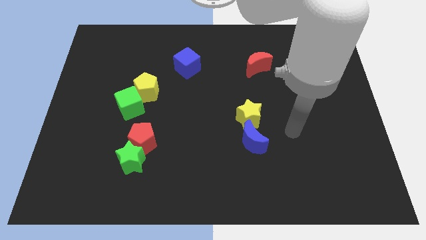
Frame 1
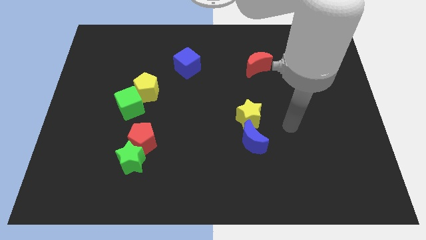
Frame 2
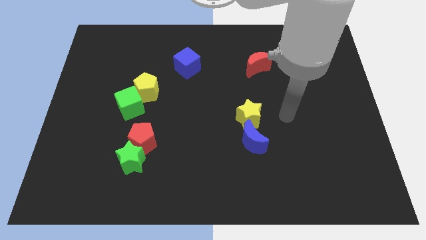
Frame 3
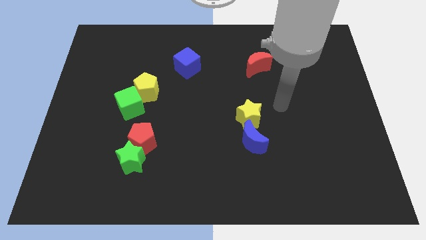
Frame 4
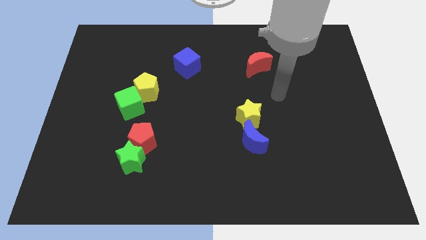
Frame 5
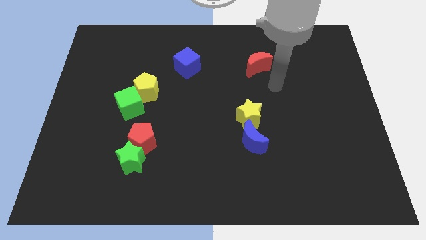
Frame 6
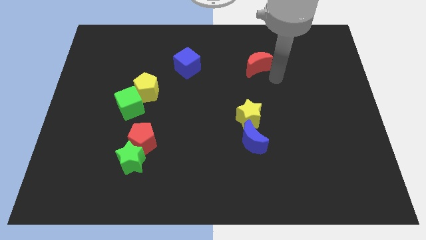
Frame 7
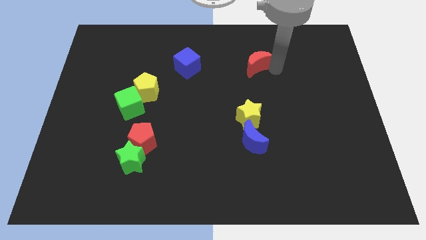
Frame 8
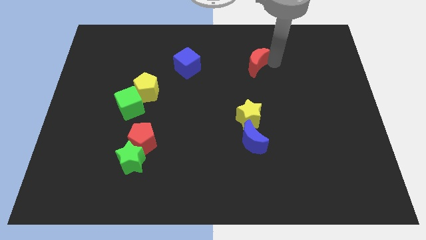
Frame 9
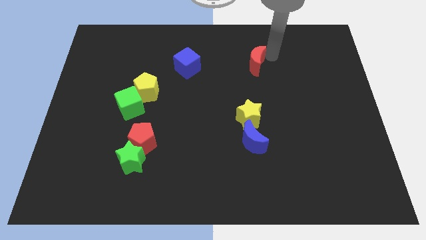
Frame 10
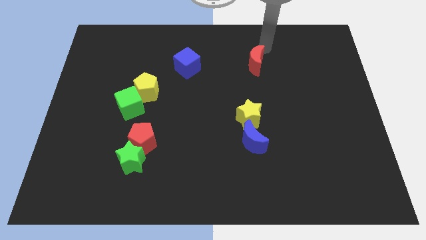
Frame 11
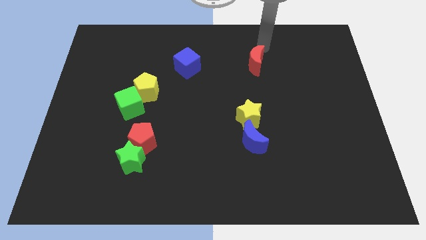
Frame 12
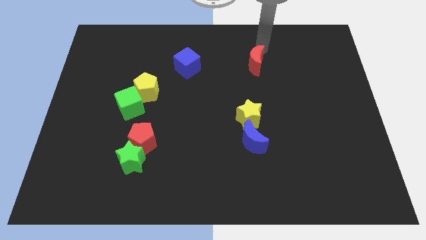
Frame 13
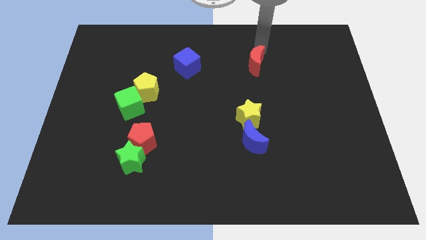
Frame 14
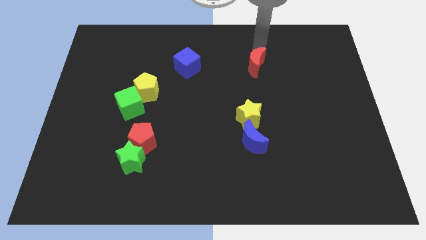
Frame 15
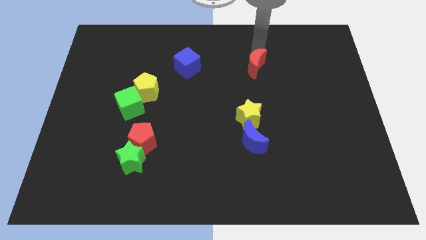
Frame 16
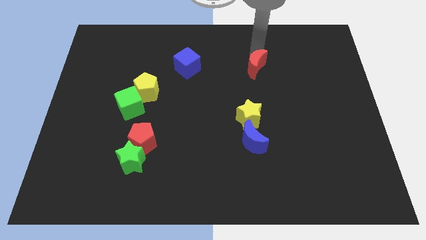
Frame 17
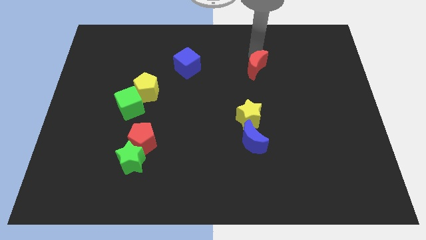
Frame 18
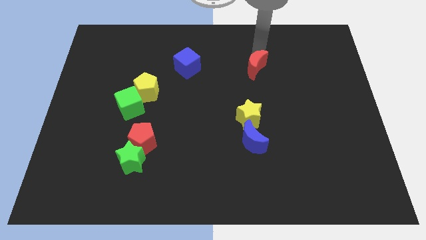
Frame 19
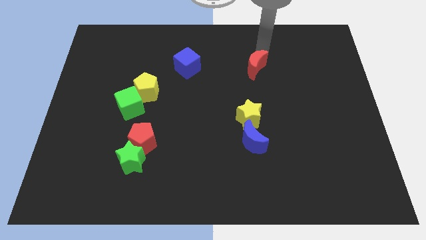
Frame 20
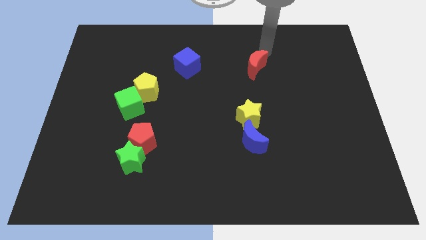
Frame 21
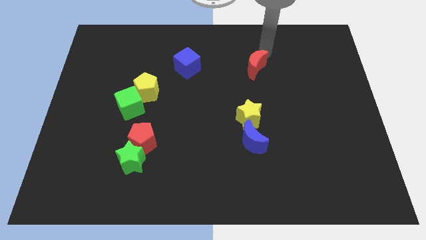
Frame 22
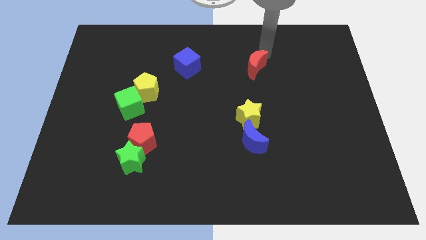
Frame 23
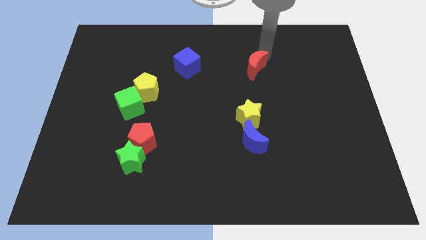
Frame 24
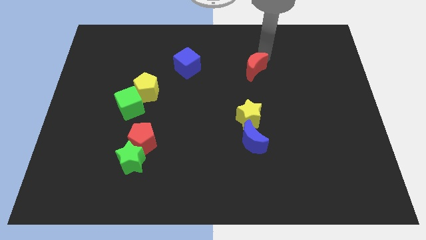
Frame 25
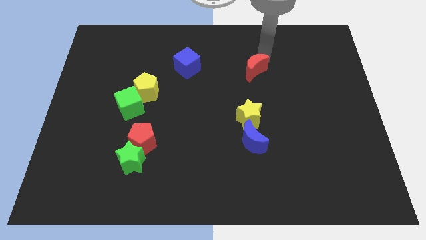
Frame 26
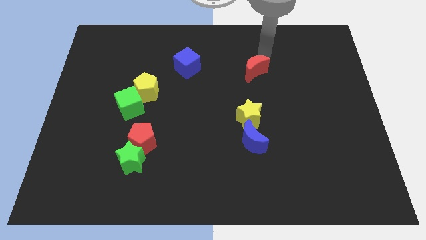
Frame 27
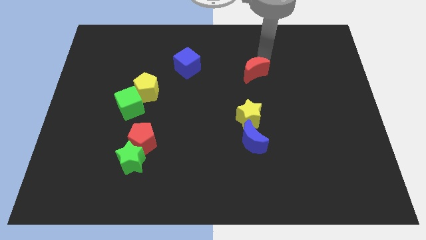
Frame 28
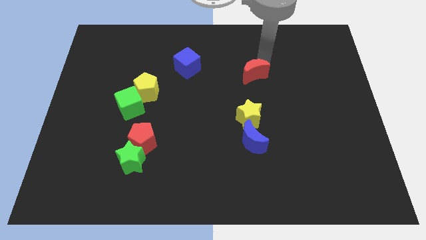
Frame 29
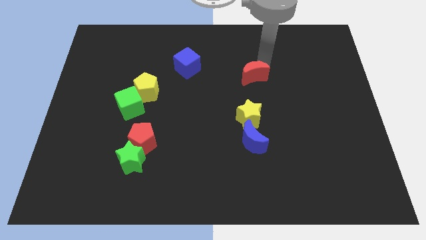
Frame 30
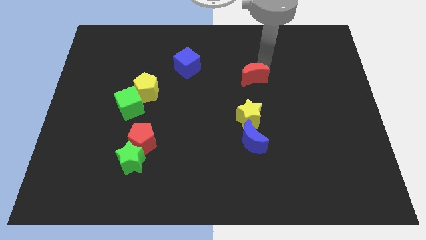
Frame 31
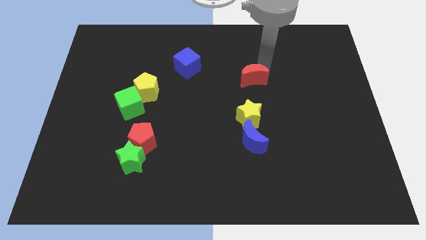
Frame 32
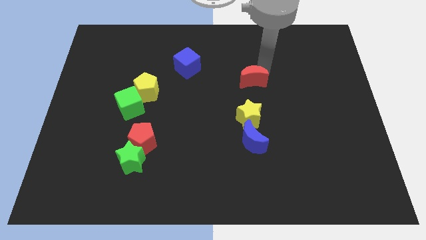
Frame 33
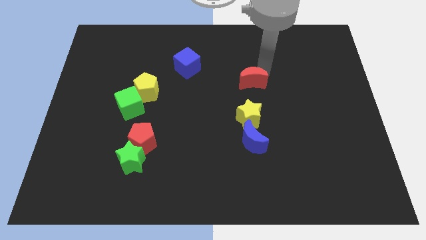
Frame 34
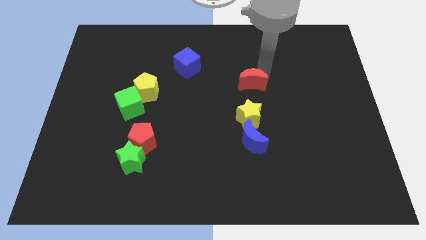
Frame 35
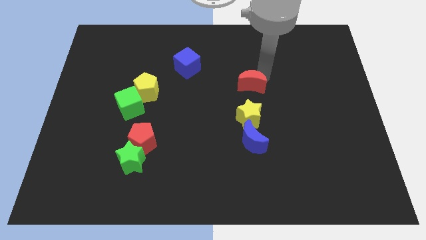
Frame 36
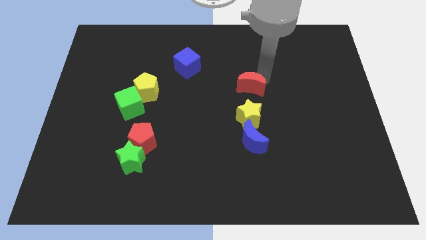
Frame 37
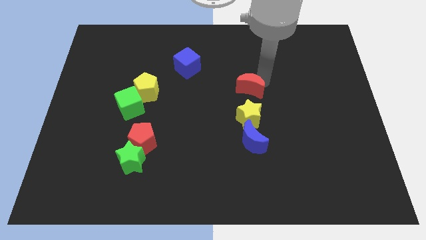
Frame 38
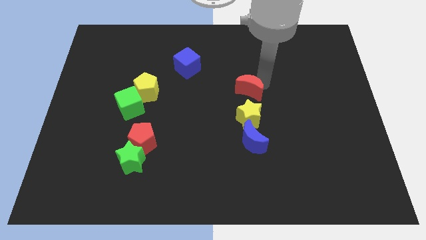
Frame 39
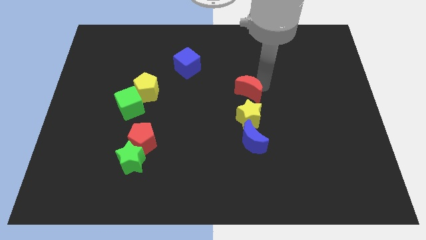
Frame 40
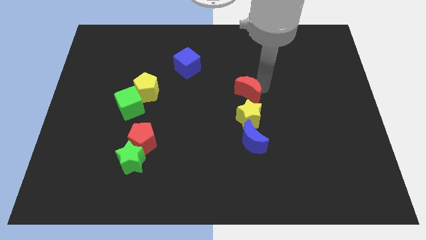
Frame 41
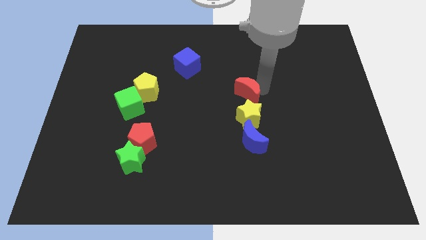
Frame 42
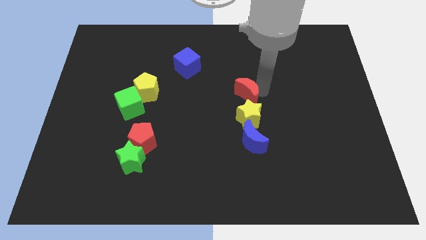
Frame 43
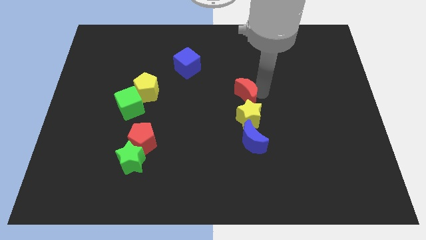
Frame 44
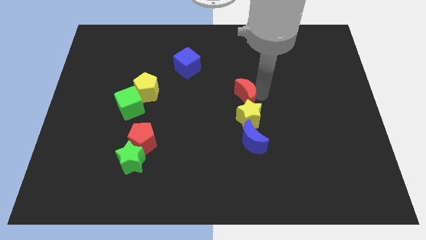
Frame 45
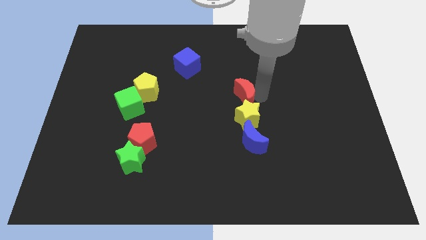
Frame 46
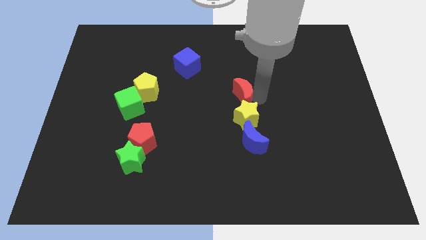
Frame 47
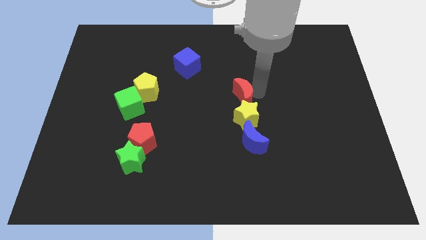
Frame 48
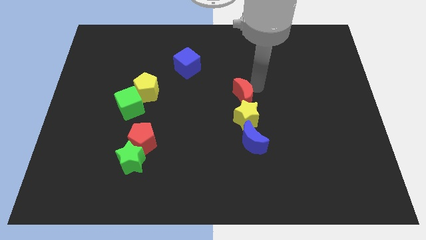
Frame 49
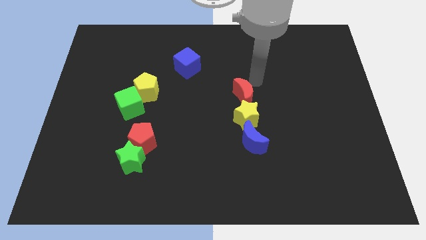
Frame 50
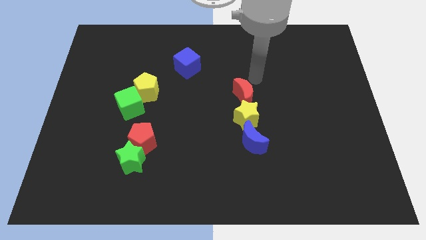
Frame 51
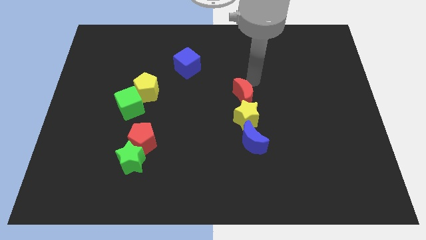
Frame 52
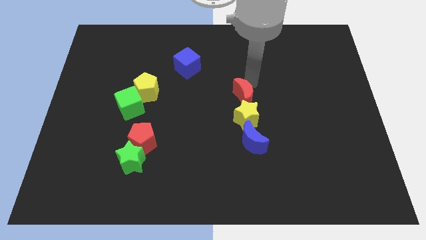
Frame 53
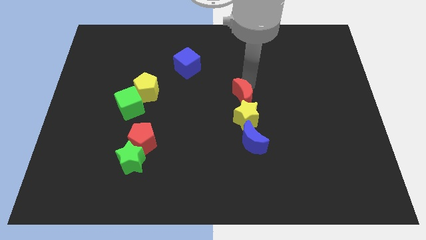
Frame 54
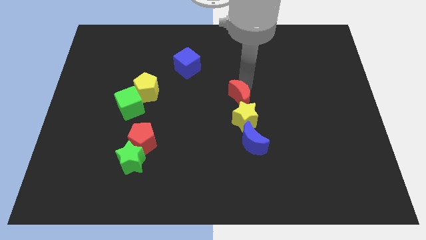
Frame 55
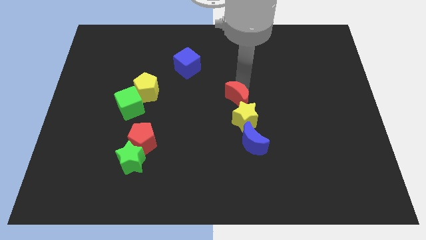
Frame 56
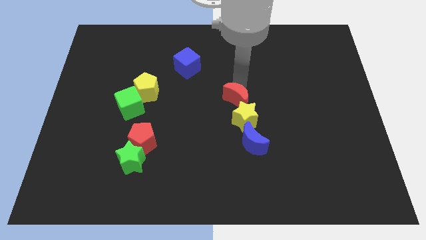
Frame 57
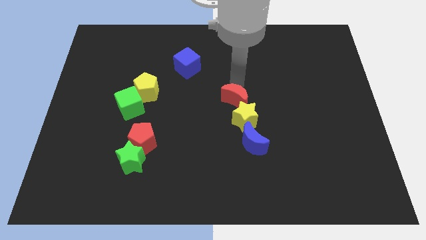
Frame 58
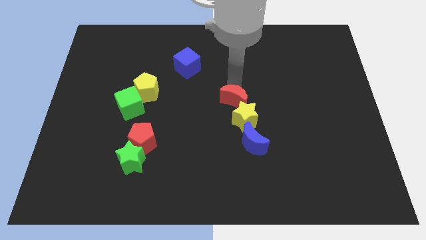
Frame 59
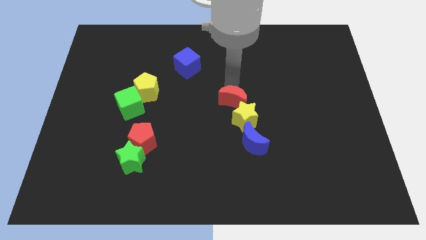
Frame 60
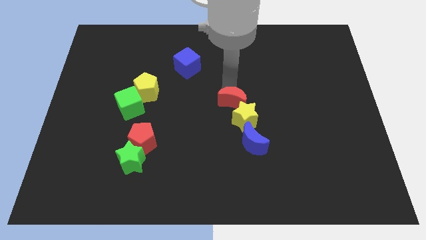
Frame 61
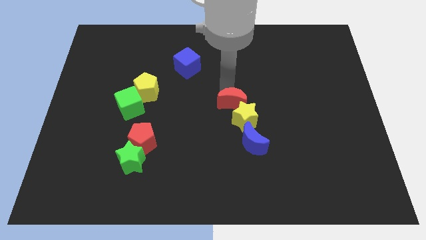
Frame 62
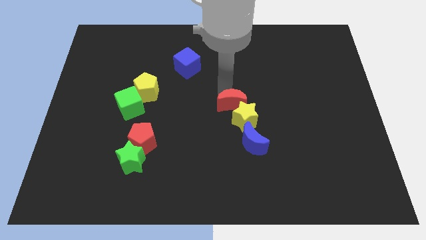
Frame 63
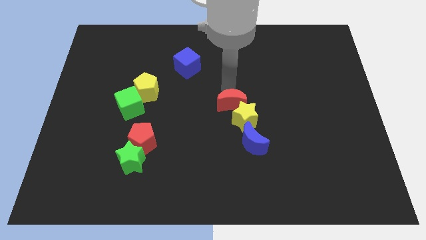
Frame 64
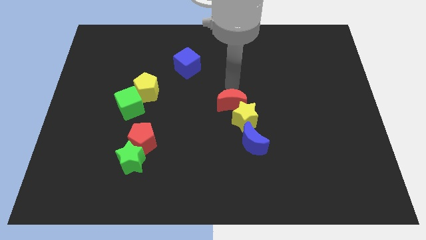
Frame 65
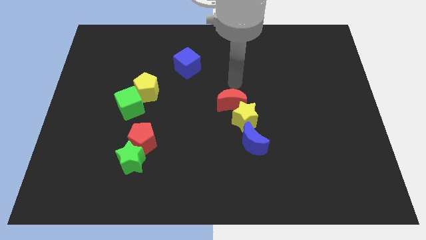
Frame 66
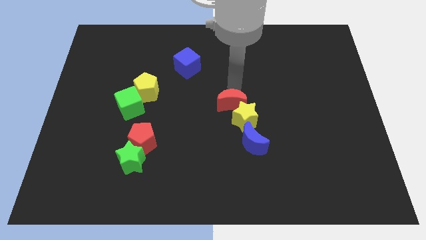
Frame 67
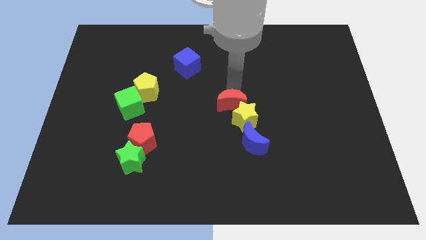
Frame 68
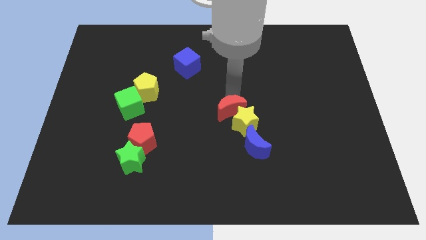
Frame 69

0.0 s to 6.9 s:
move the red moon diagonally up and to the left of the blue moon
